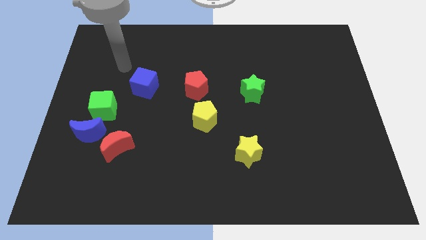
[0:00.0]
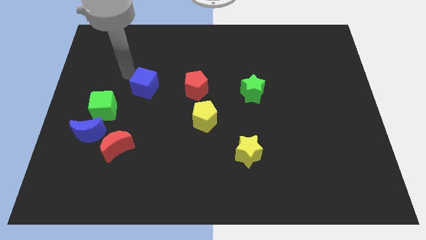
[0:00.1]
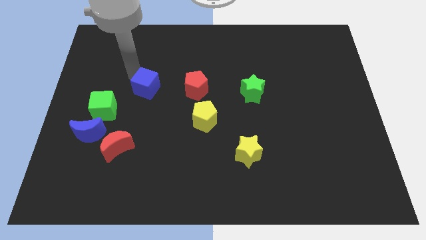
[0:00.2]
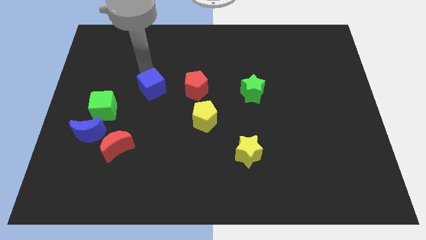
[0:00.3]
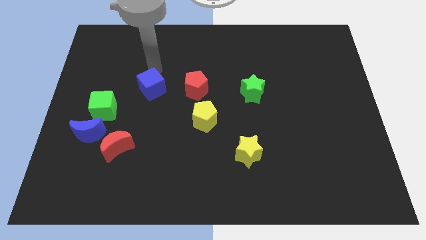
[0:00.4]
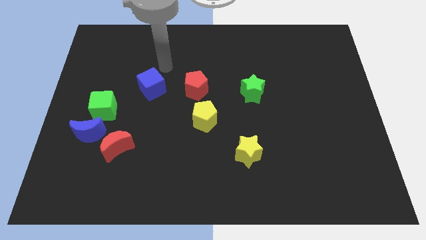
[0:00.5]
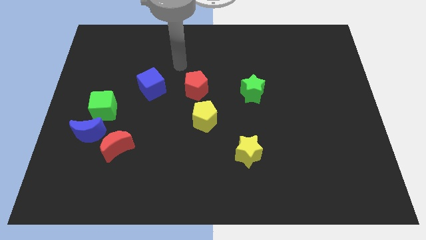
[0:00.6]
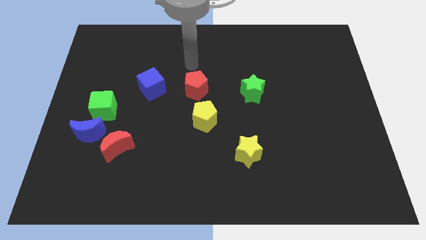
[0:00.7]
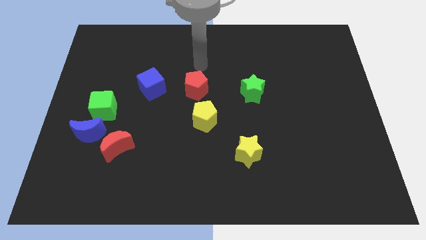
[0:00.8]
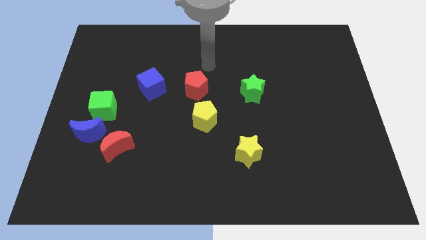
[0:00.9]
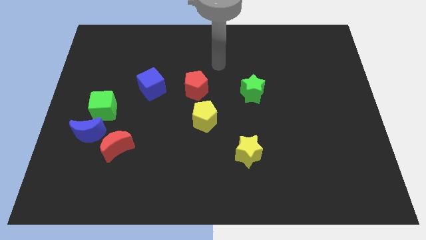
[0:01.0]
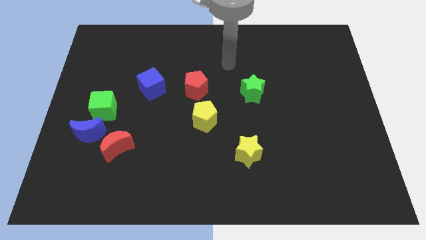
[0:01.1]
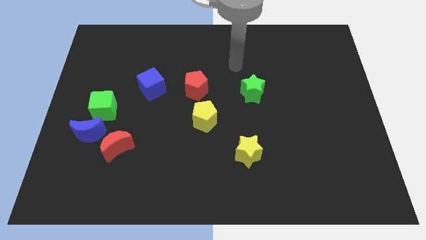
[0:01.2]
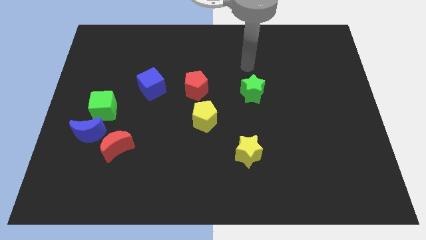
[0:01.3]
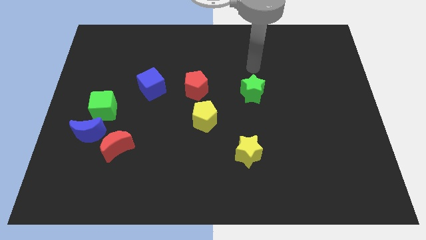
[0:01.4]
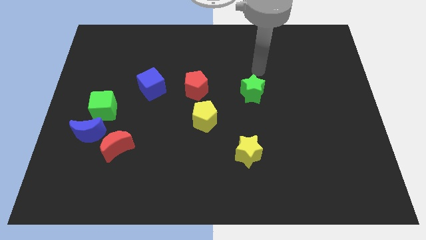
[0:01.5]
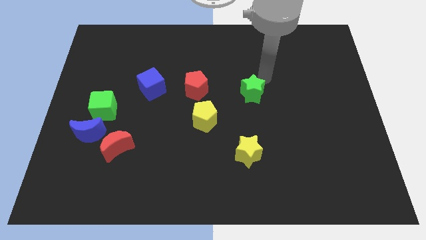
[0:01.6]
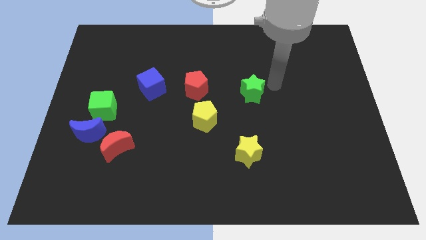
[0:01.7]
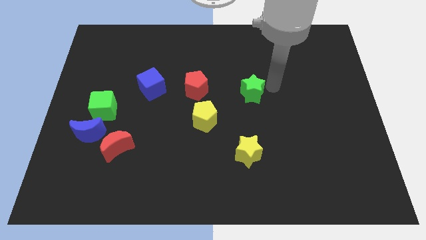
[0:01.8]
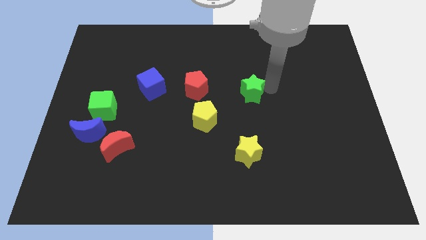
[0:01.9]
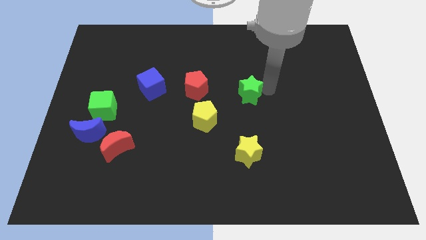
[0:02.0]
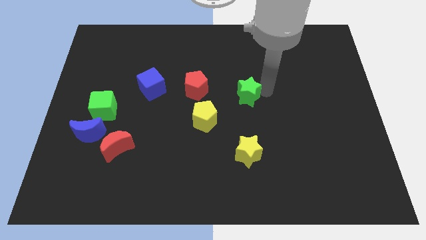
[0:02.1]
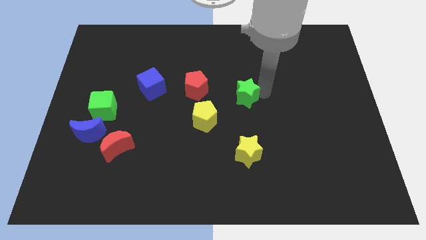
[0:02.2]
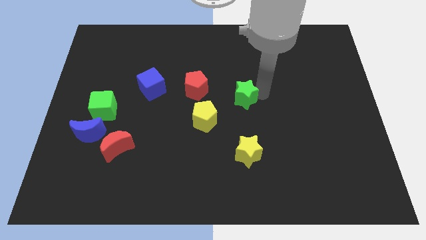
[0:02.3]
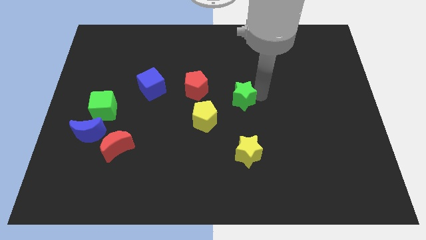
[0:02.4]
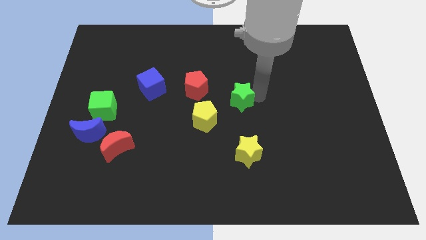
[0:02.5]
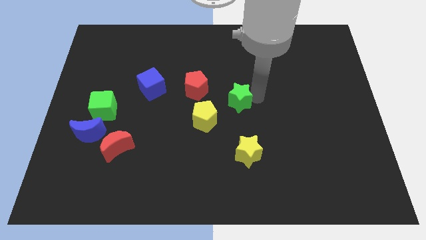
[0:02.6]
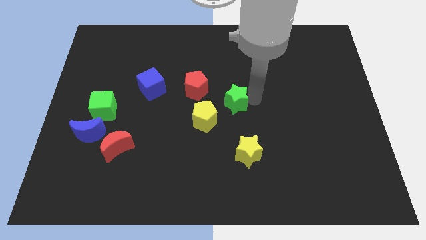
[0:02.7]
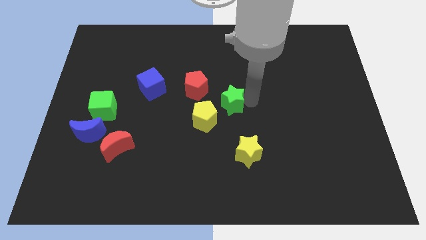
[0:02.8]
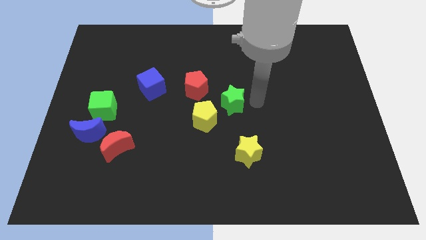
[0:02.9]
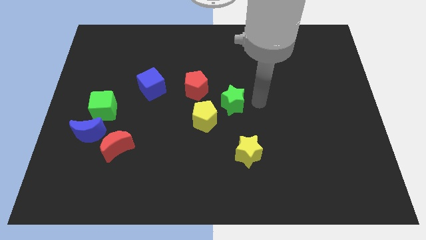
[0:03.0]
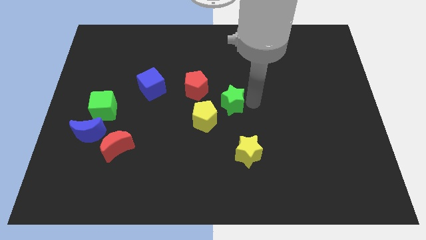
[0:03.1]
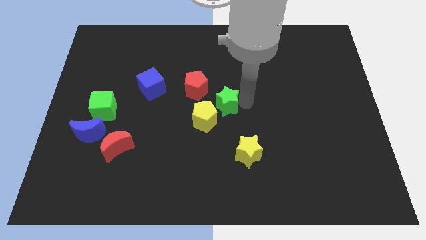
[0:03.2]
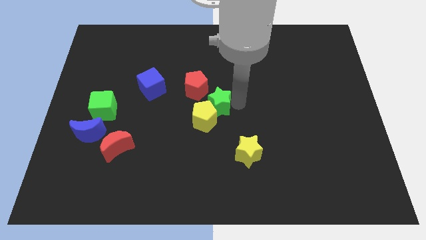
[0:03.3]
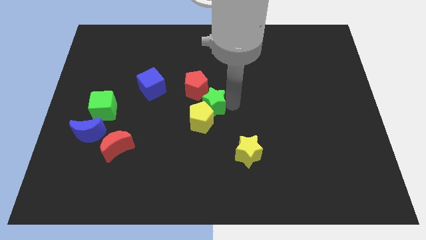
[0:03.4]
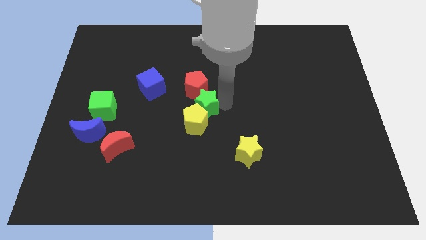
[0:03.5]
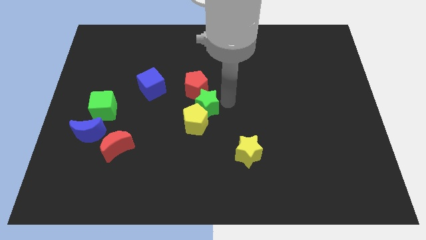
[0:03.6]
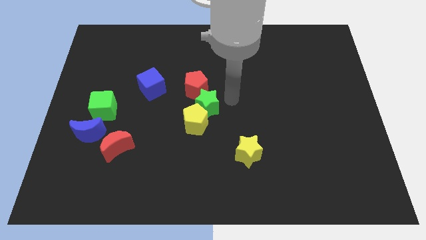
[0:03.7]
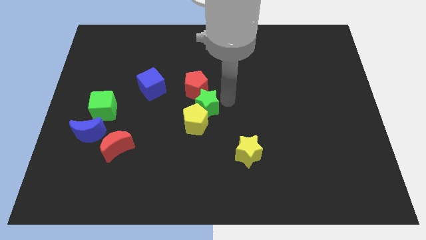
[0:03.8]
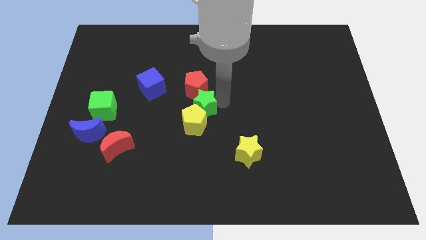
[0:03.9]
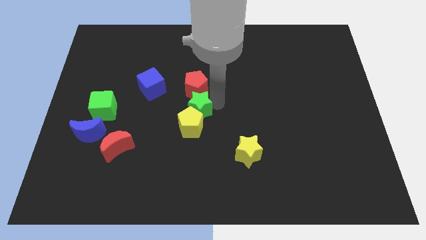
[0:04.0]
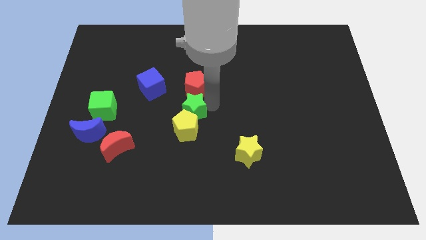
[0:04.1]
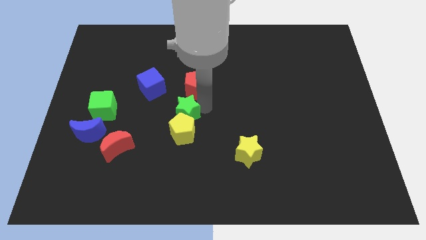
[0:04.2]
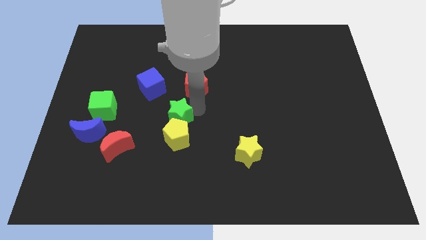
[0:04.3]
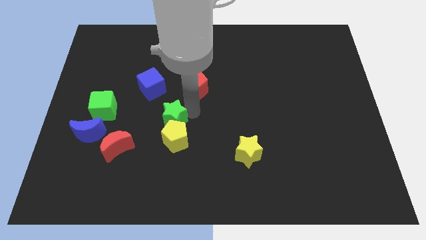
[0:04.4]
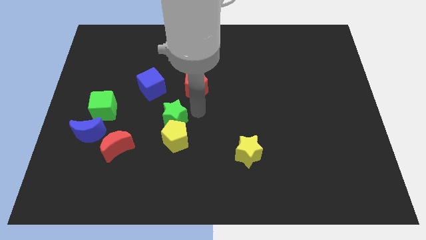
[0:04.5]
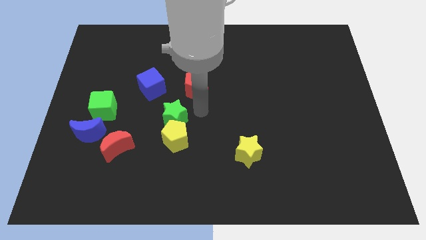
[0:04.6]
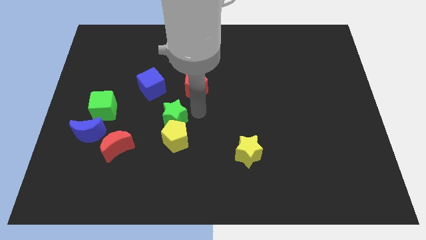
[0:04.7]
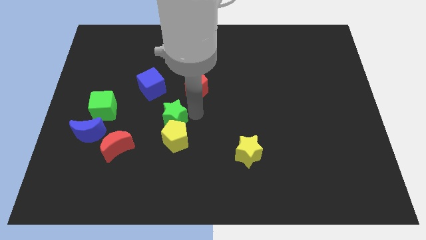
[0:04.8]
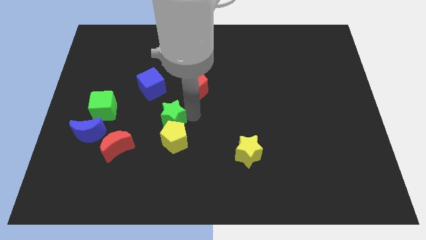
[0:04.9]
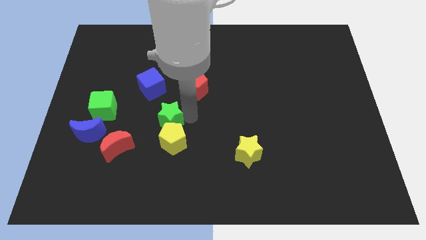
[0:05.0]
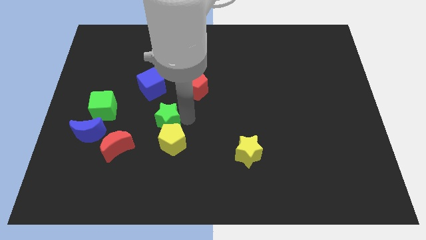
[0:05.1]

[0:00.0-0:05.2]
move the green star diagonally up and to the right of the red moon

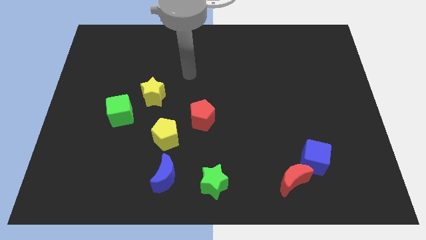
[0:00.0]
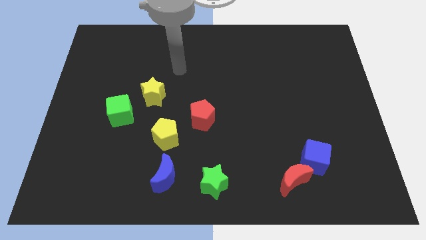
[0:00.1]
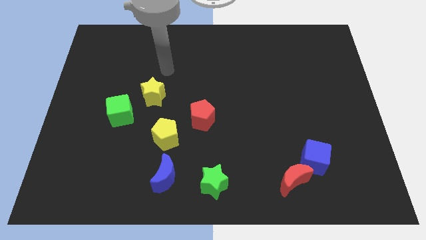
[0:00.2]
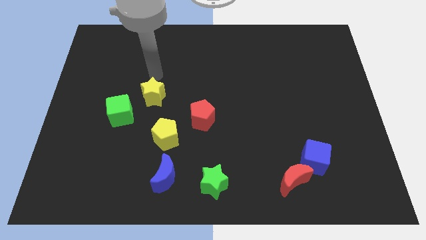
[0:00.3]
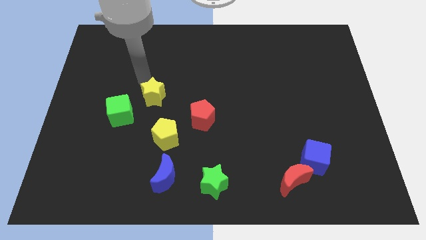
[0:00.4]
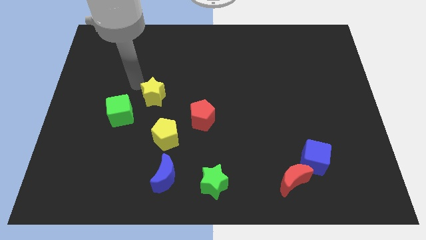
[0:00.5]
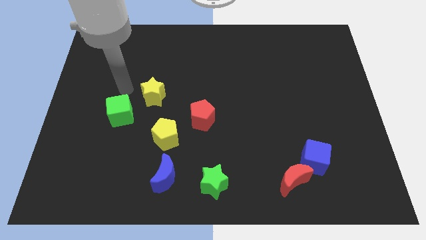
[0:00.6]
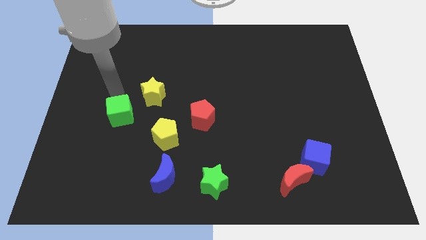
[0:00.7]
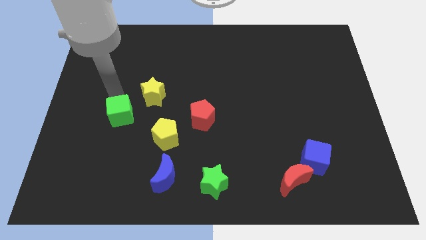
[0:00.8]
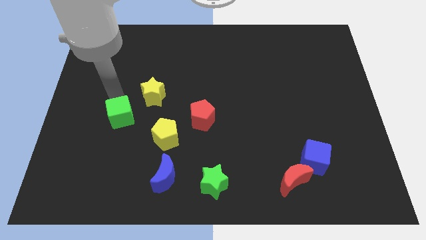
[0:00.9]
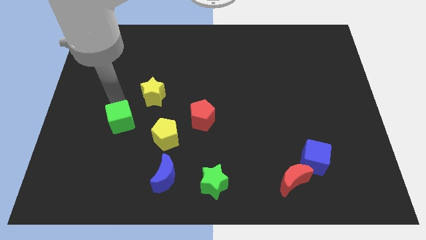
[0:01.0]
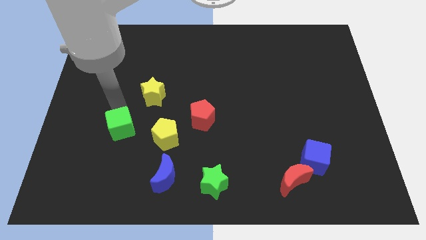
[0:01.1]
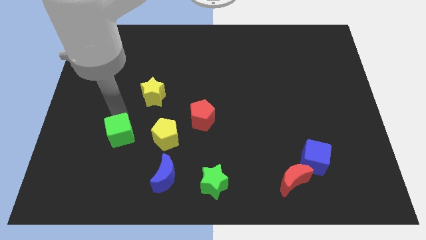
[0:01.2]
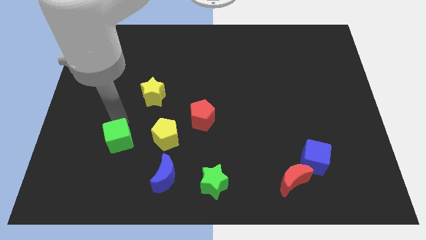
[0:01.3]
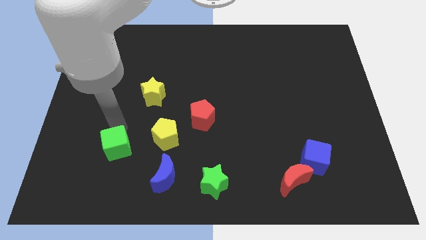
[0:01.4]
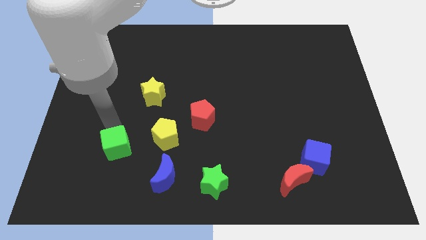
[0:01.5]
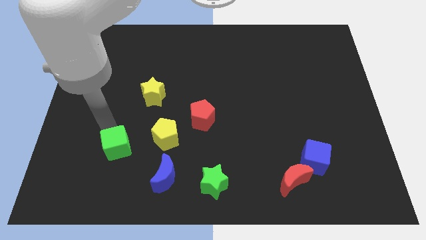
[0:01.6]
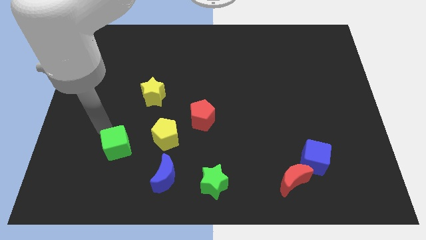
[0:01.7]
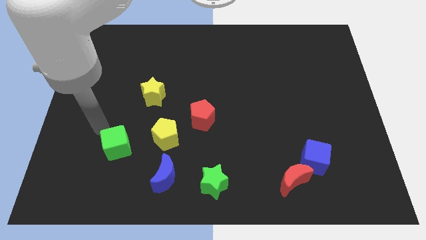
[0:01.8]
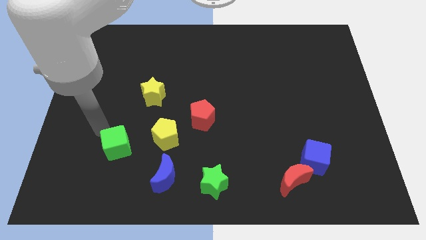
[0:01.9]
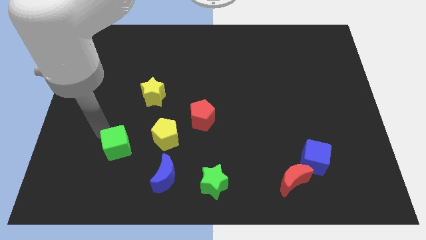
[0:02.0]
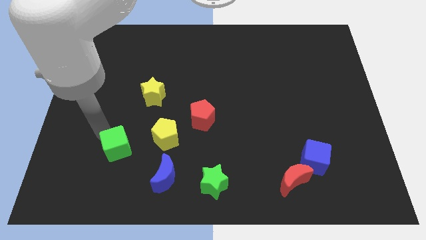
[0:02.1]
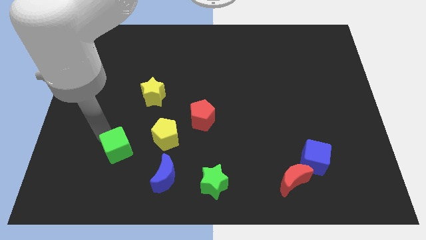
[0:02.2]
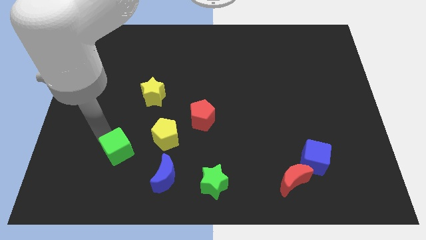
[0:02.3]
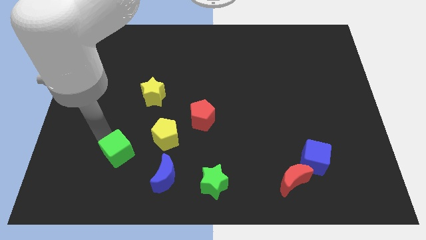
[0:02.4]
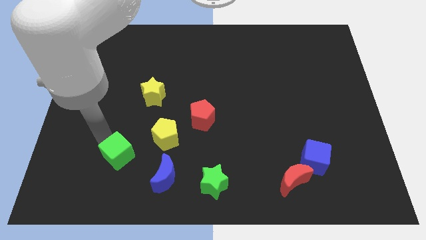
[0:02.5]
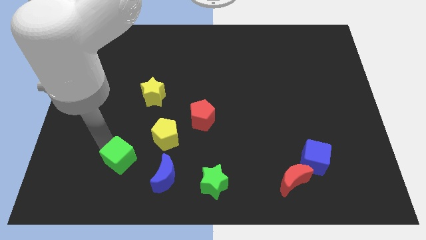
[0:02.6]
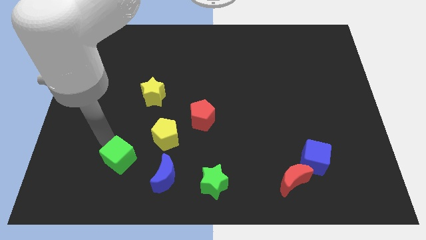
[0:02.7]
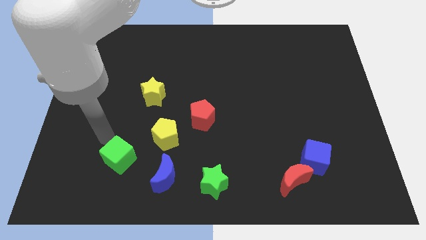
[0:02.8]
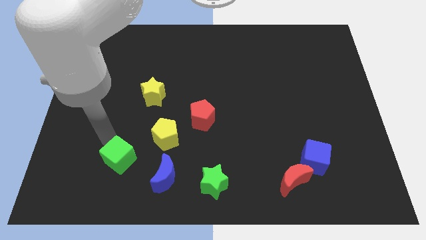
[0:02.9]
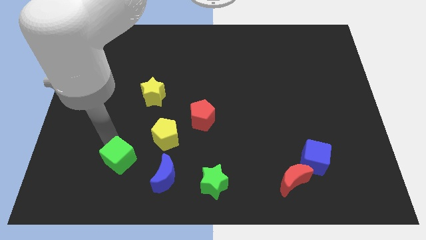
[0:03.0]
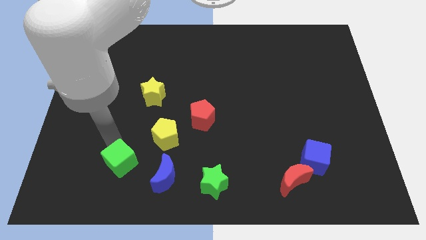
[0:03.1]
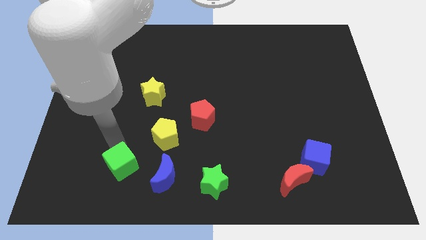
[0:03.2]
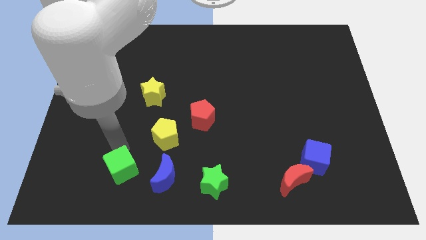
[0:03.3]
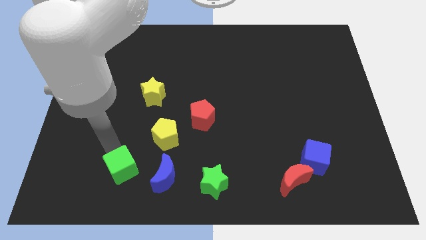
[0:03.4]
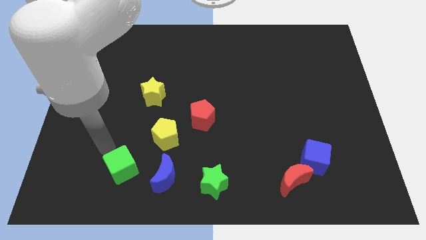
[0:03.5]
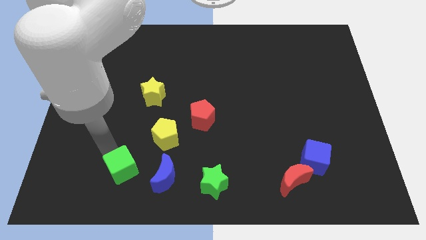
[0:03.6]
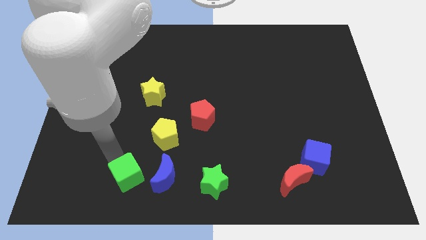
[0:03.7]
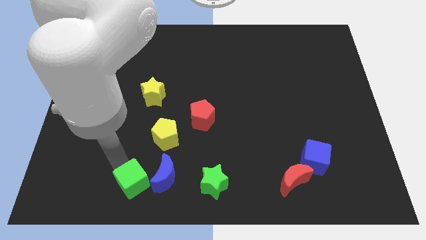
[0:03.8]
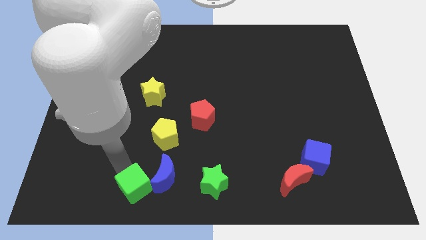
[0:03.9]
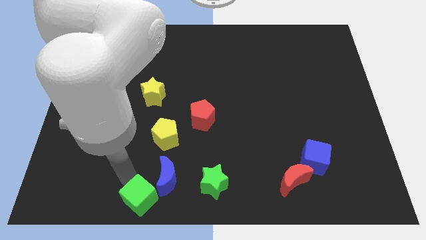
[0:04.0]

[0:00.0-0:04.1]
move the green cube to the bottom of the yellow pentagon
